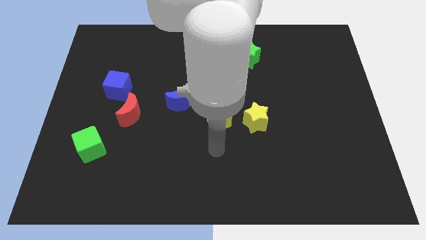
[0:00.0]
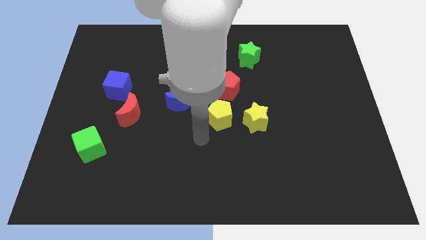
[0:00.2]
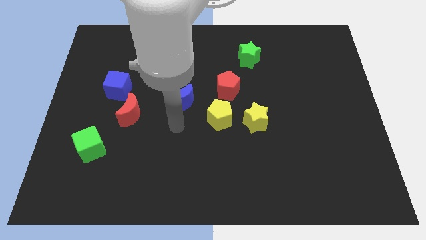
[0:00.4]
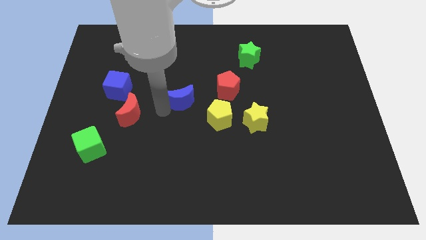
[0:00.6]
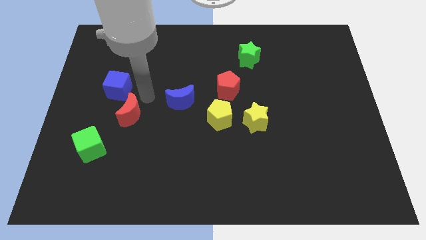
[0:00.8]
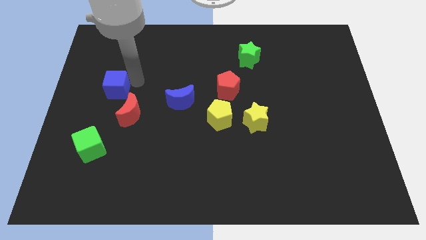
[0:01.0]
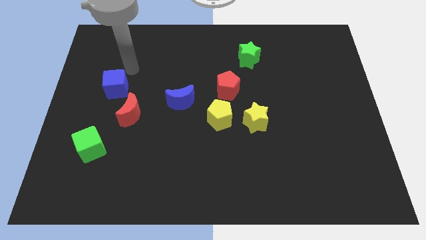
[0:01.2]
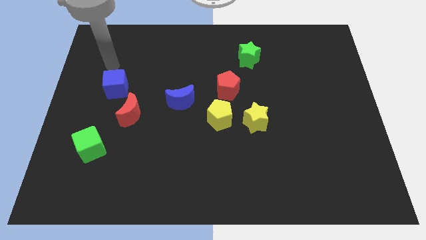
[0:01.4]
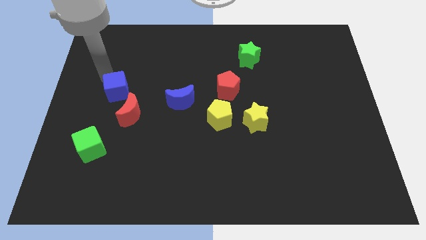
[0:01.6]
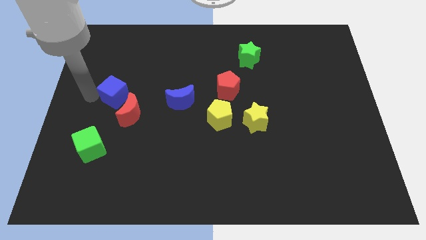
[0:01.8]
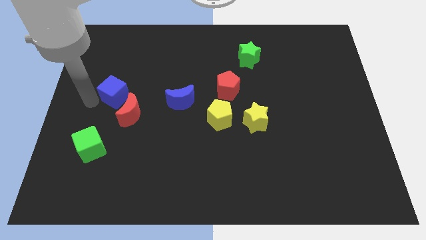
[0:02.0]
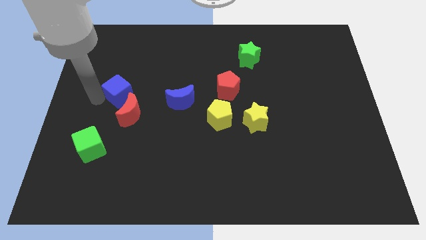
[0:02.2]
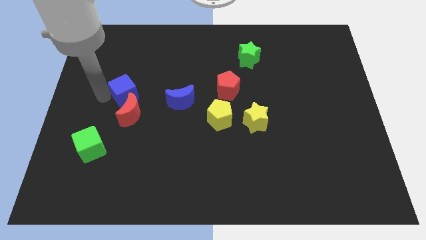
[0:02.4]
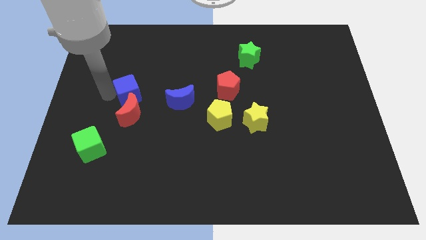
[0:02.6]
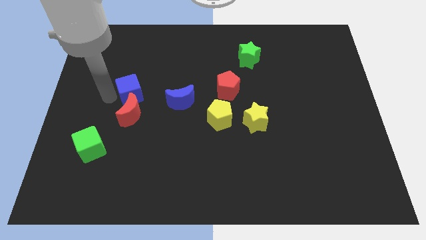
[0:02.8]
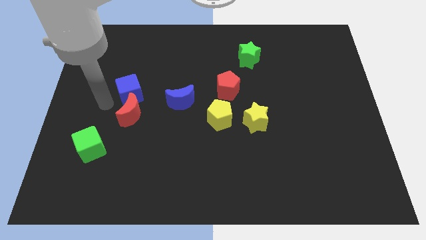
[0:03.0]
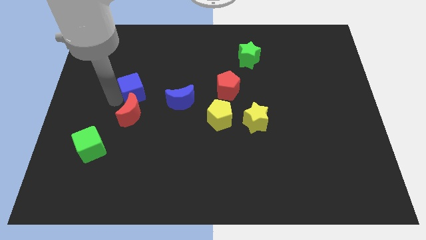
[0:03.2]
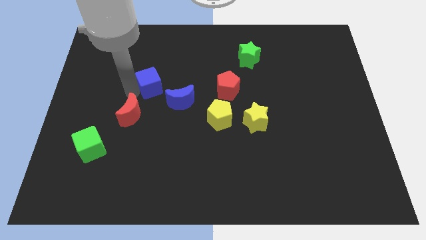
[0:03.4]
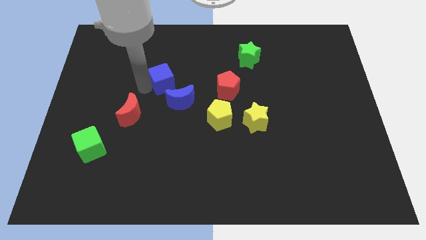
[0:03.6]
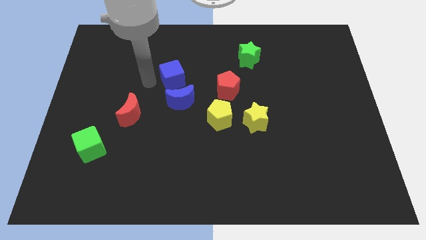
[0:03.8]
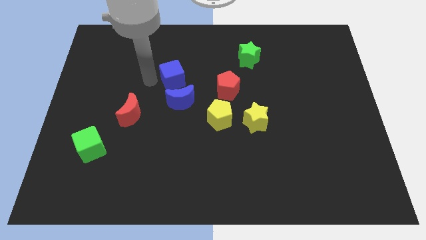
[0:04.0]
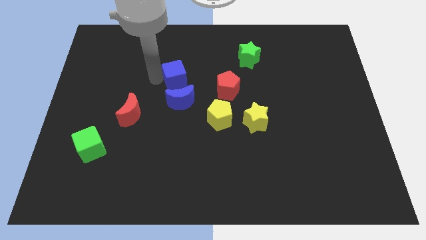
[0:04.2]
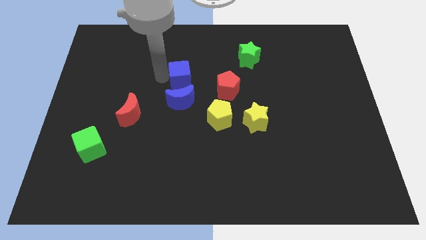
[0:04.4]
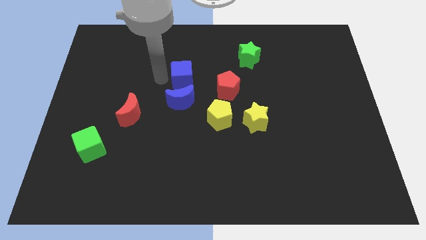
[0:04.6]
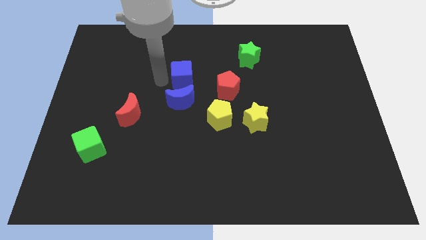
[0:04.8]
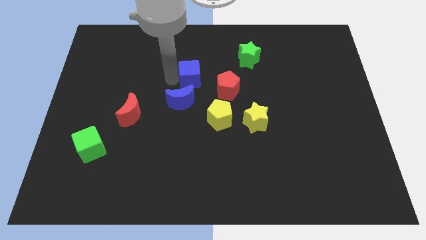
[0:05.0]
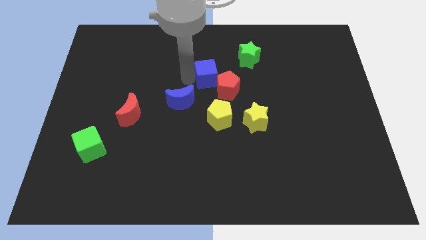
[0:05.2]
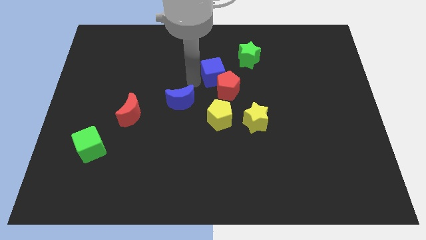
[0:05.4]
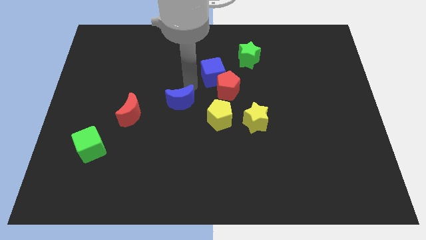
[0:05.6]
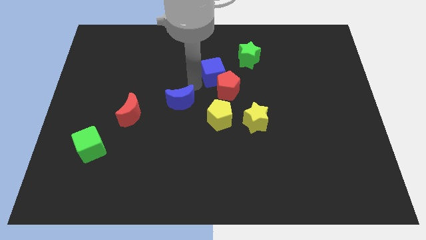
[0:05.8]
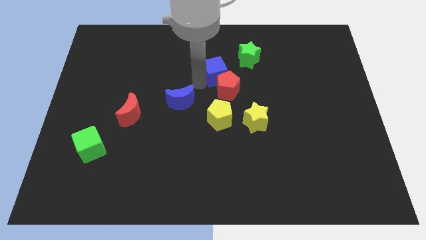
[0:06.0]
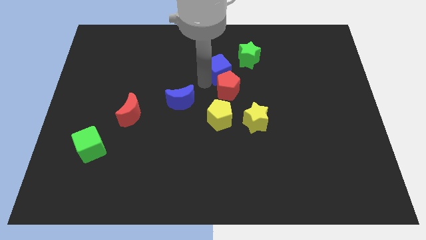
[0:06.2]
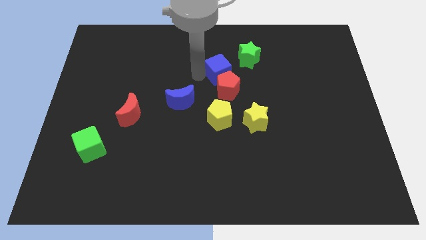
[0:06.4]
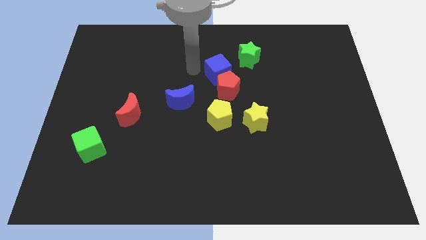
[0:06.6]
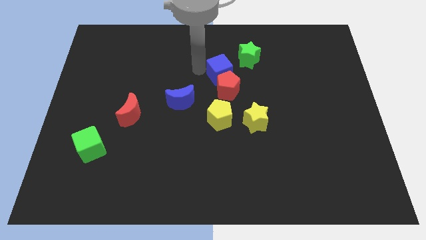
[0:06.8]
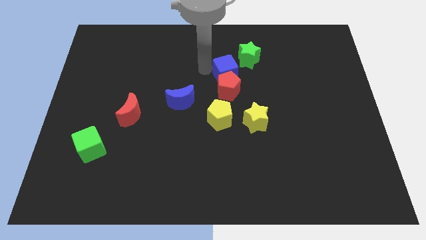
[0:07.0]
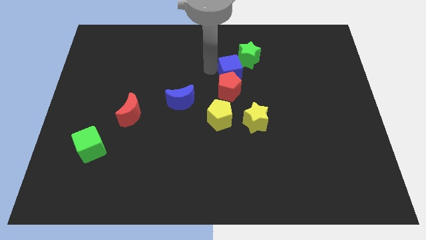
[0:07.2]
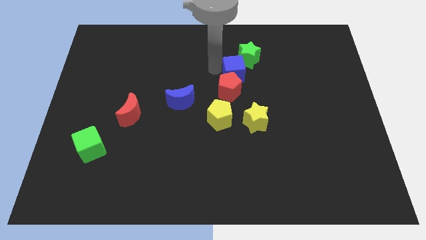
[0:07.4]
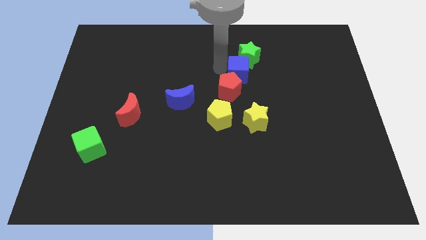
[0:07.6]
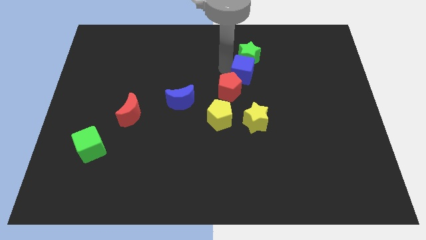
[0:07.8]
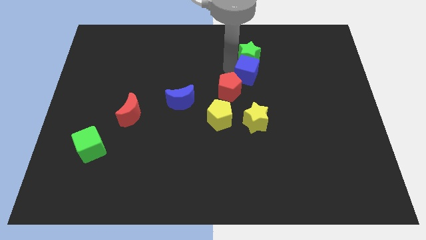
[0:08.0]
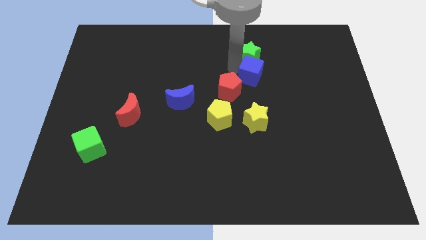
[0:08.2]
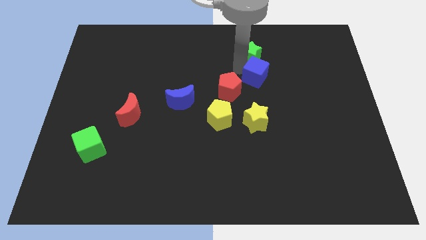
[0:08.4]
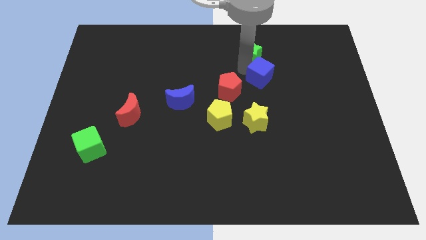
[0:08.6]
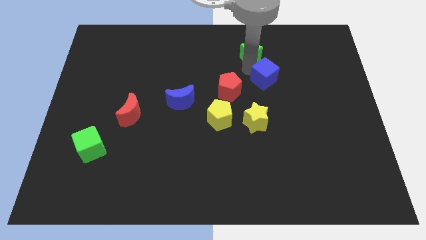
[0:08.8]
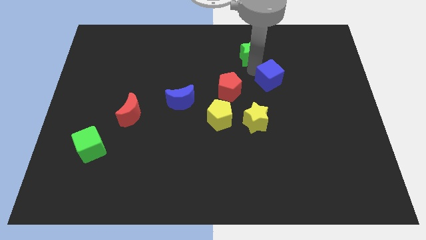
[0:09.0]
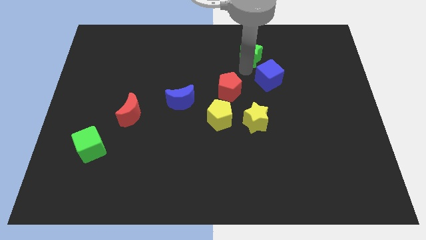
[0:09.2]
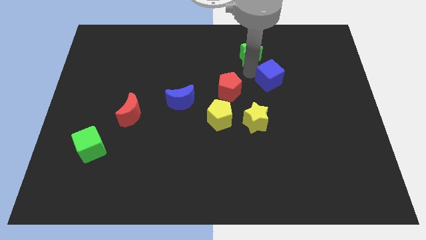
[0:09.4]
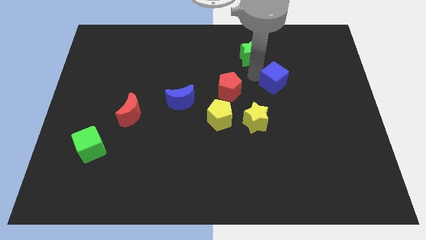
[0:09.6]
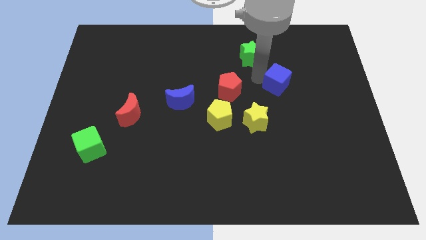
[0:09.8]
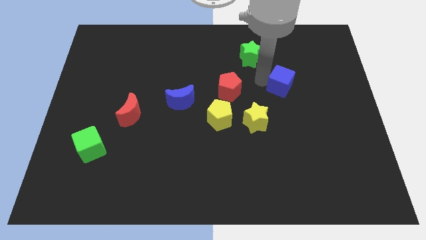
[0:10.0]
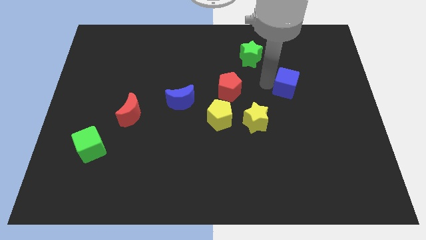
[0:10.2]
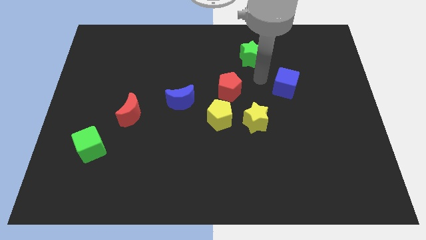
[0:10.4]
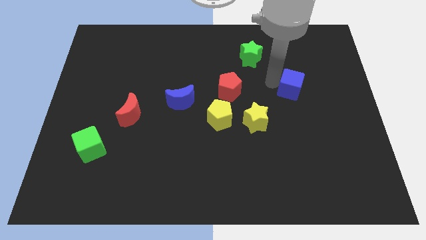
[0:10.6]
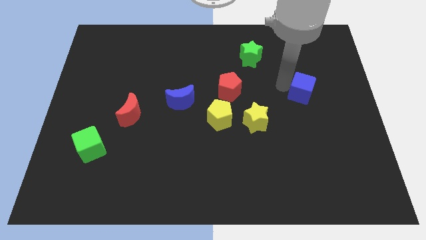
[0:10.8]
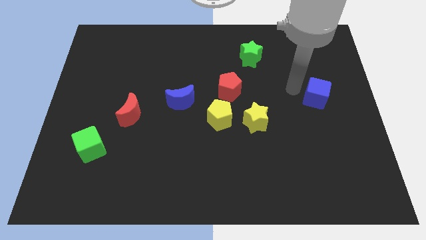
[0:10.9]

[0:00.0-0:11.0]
slide the blue cube to the center right
